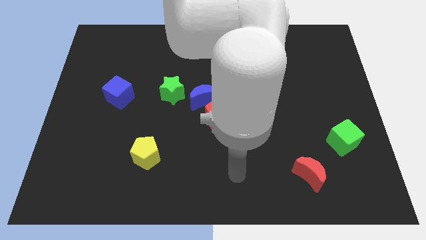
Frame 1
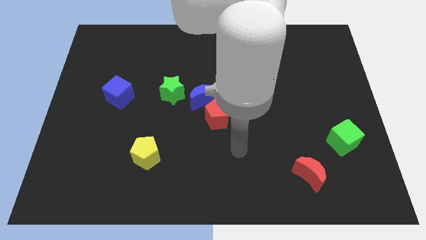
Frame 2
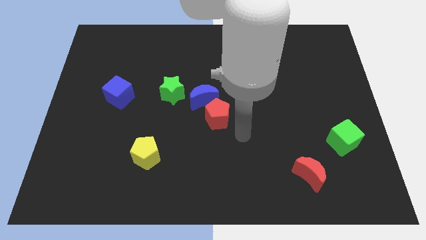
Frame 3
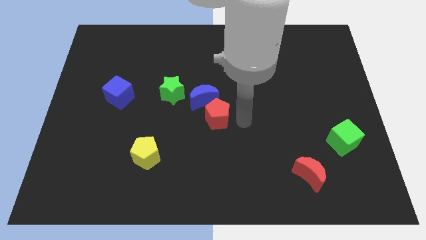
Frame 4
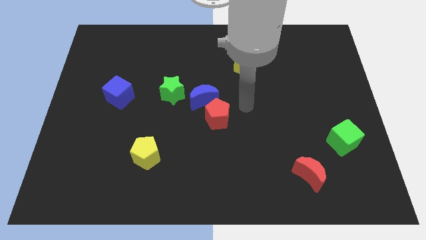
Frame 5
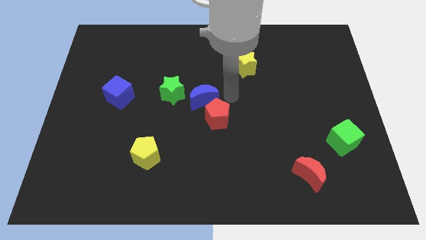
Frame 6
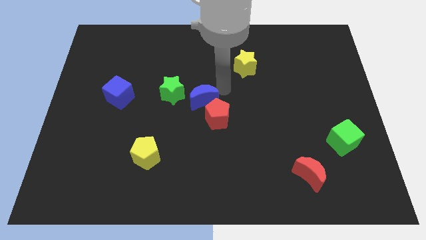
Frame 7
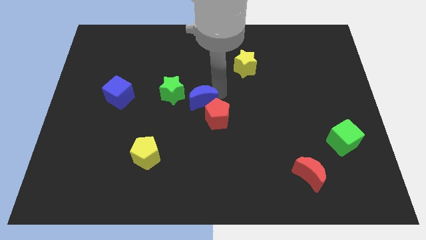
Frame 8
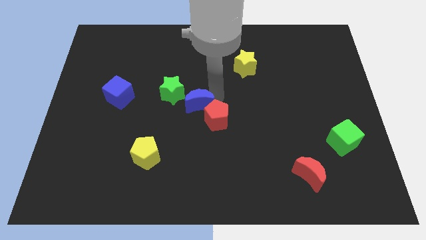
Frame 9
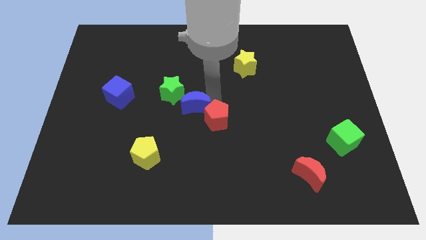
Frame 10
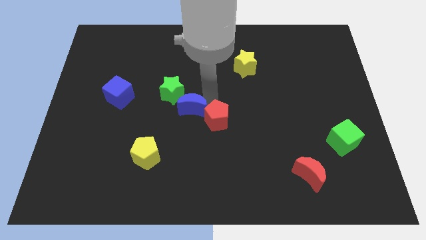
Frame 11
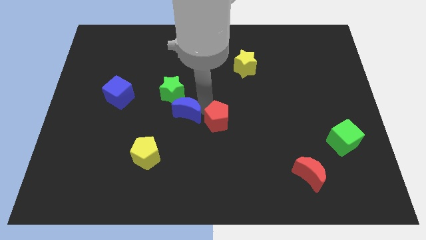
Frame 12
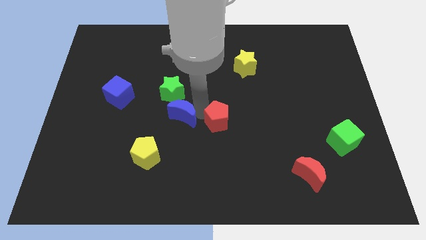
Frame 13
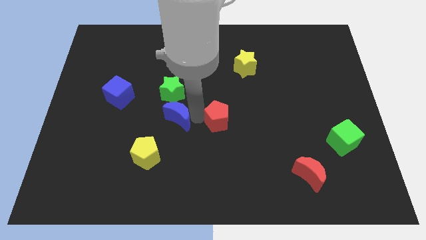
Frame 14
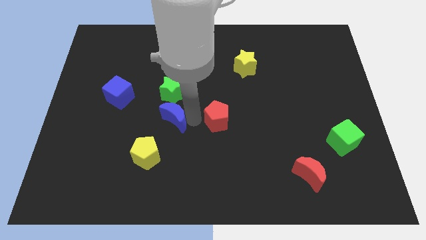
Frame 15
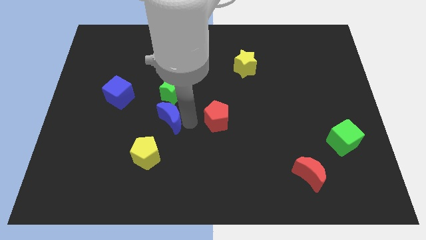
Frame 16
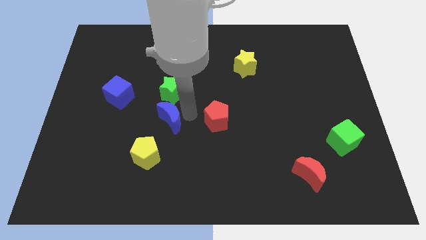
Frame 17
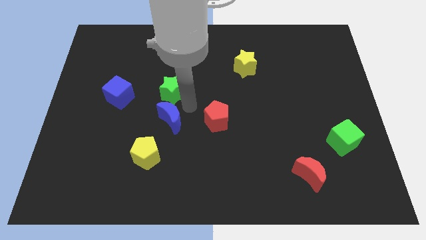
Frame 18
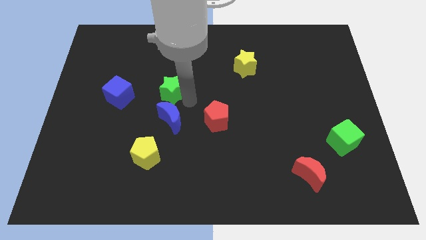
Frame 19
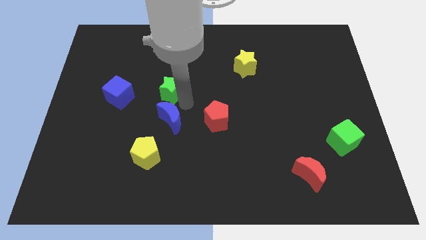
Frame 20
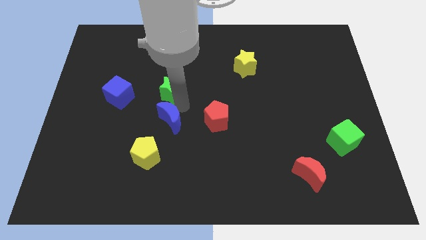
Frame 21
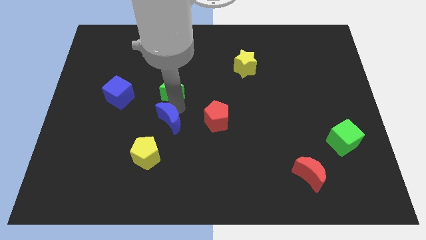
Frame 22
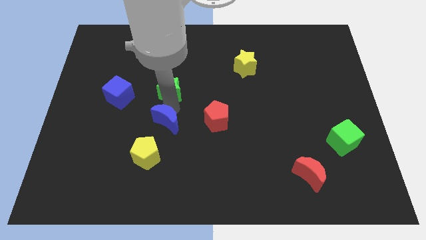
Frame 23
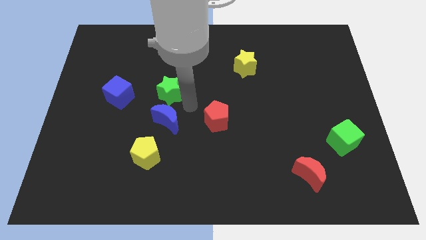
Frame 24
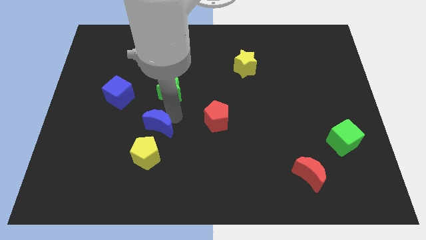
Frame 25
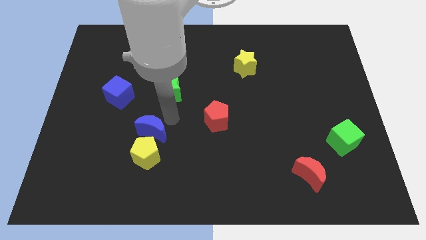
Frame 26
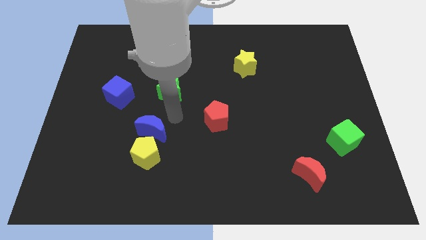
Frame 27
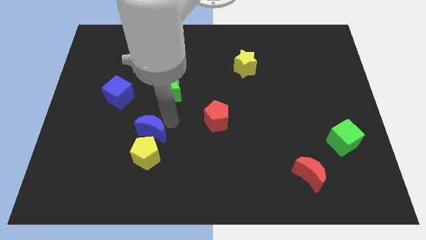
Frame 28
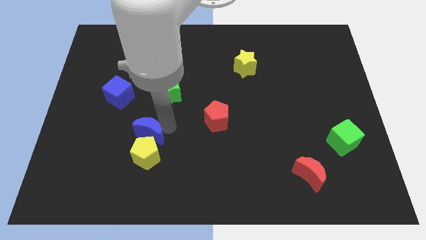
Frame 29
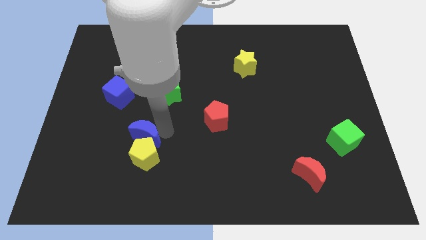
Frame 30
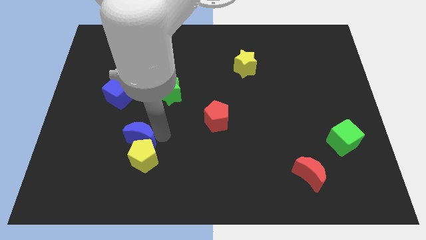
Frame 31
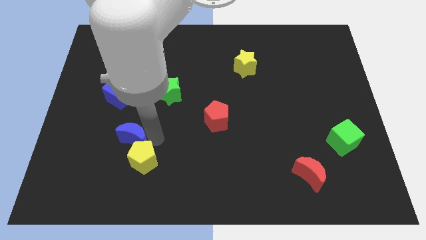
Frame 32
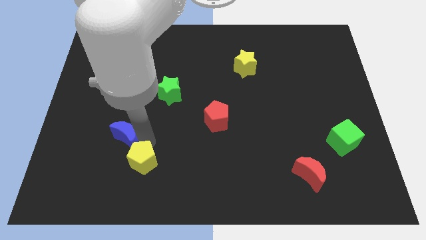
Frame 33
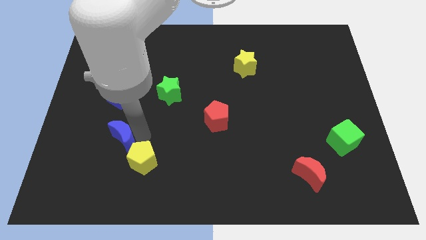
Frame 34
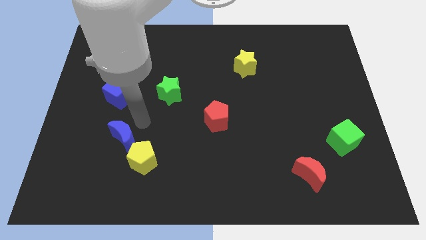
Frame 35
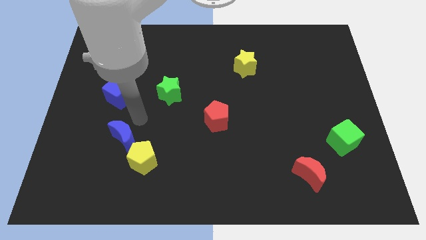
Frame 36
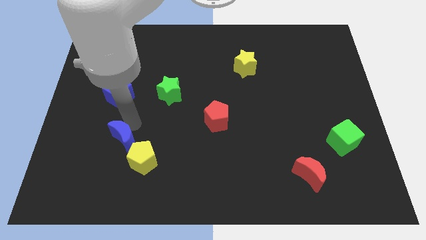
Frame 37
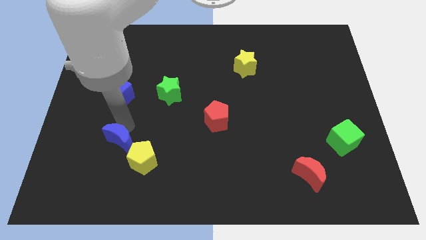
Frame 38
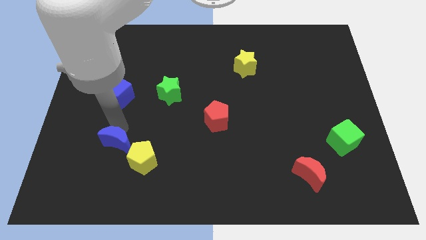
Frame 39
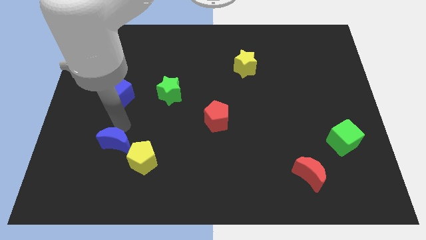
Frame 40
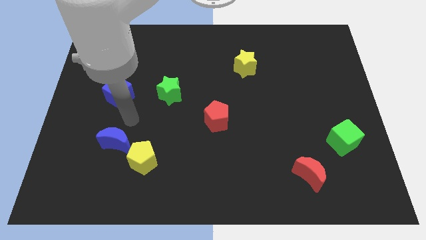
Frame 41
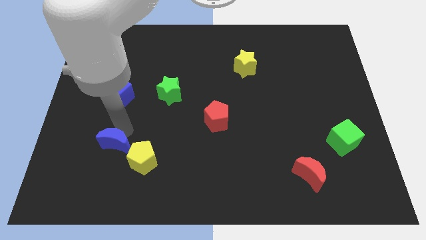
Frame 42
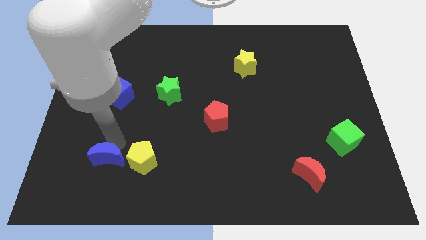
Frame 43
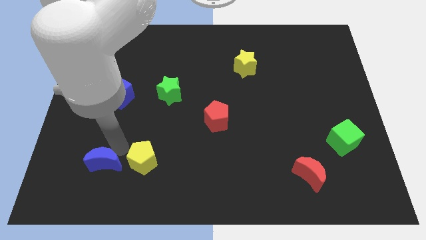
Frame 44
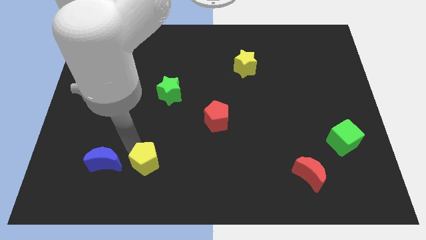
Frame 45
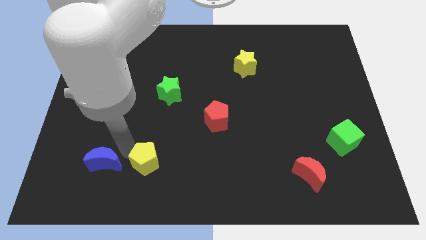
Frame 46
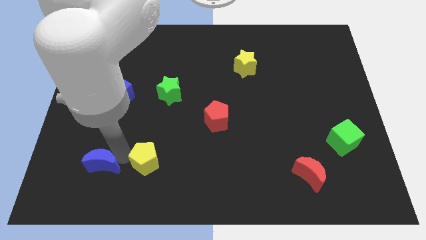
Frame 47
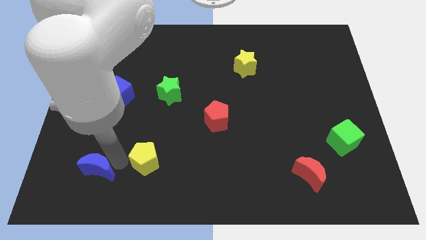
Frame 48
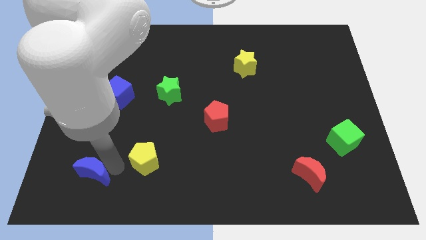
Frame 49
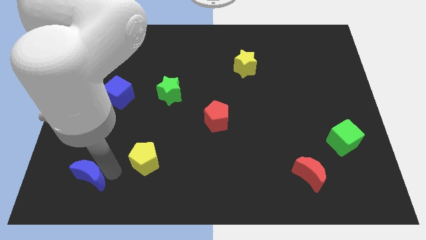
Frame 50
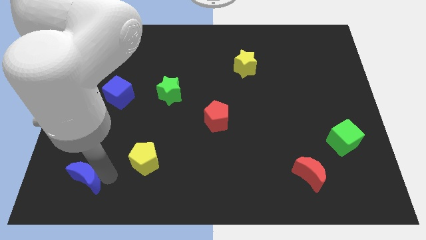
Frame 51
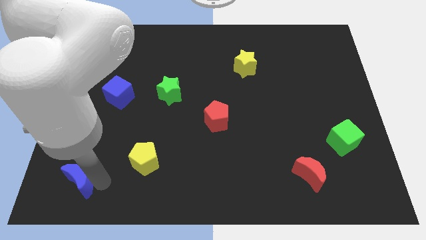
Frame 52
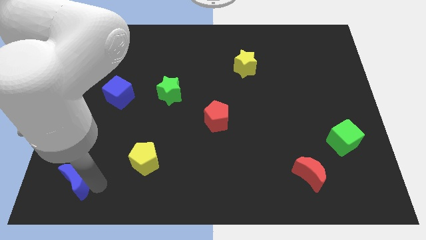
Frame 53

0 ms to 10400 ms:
put the blue moon to the bottom left corner
